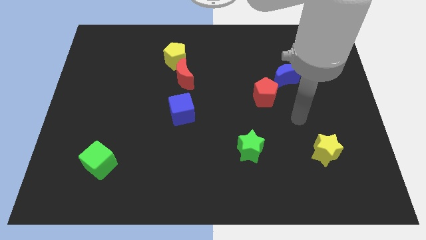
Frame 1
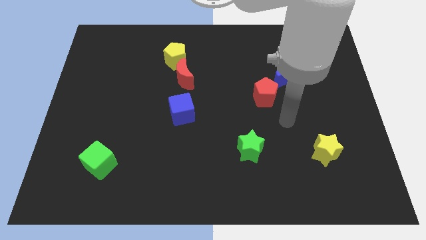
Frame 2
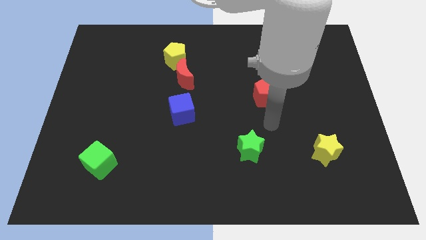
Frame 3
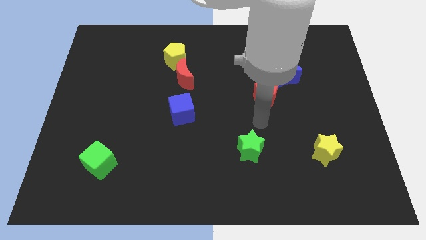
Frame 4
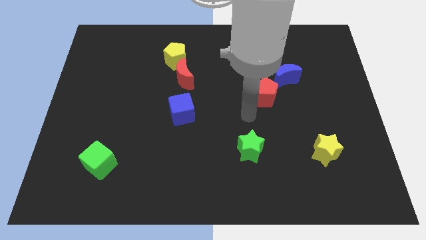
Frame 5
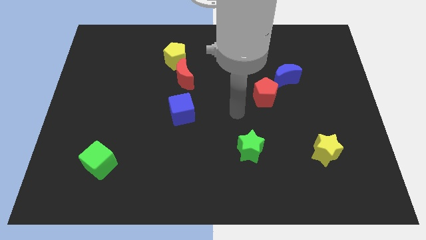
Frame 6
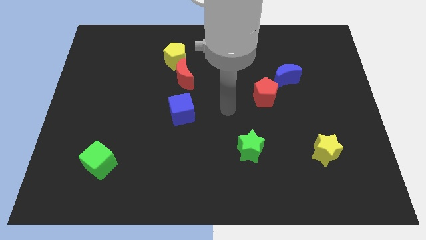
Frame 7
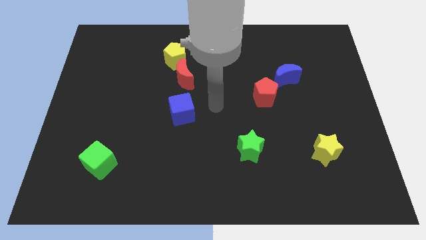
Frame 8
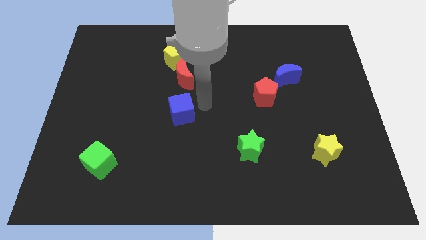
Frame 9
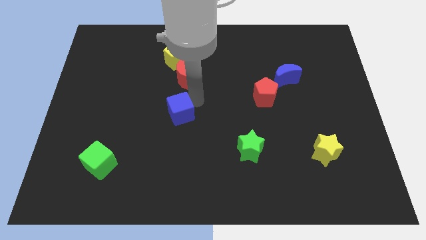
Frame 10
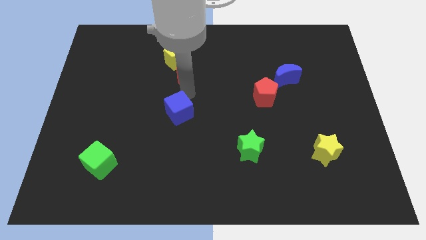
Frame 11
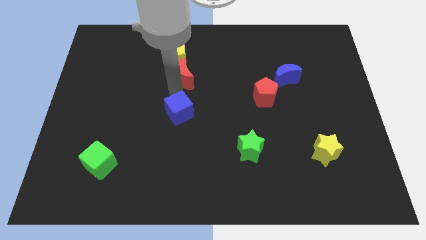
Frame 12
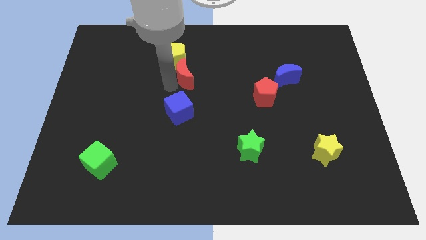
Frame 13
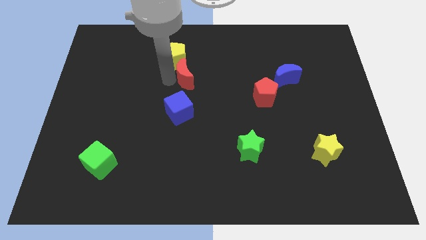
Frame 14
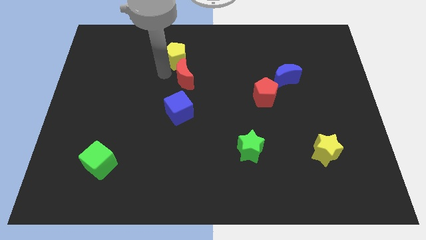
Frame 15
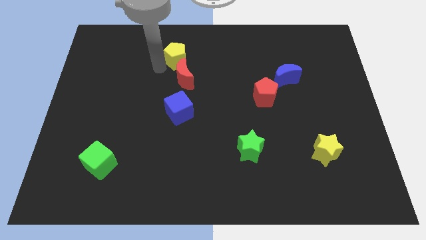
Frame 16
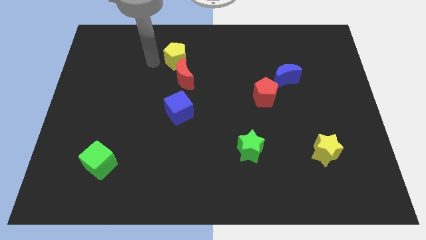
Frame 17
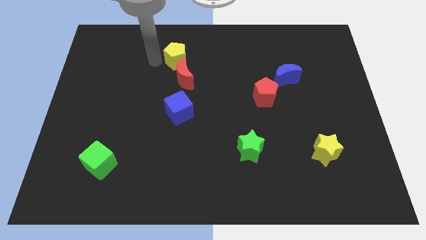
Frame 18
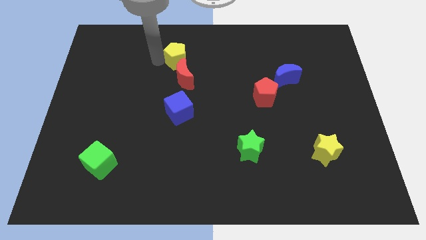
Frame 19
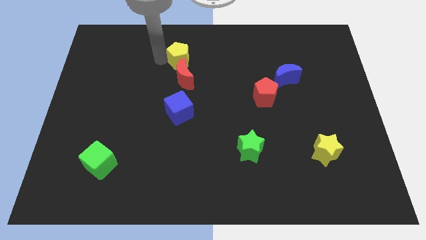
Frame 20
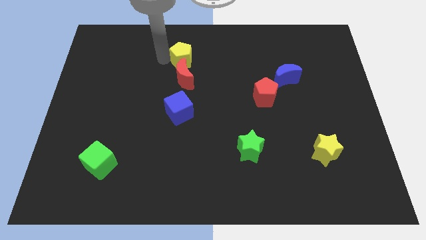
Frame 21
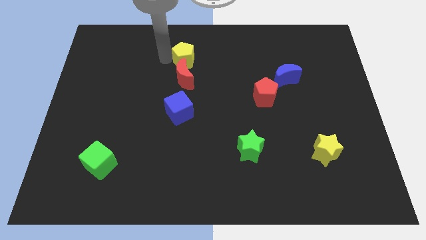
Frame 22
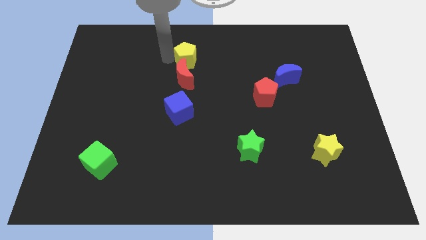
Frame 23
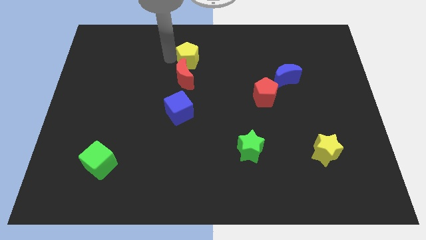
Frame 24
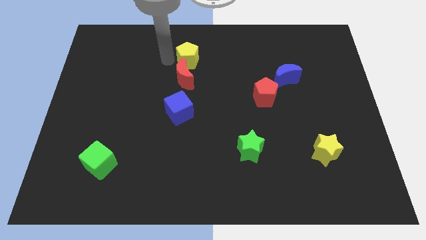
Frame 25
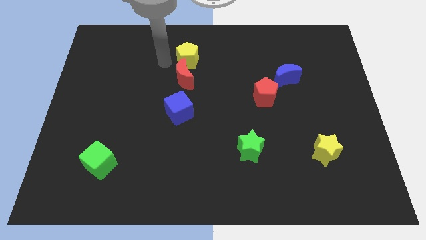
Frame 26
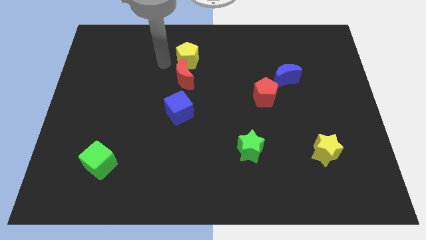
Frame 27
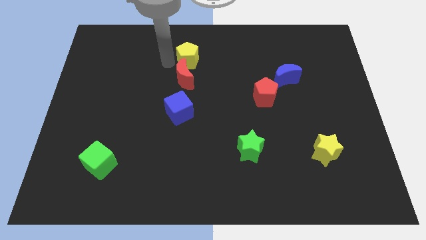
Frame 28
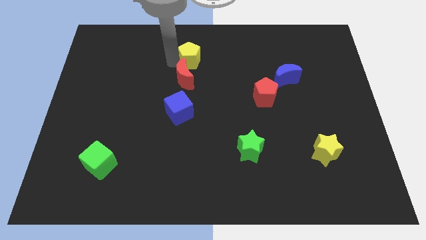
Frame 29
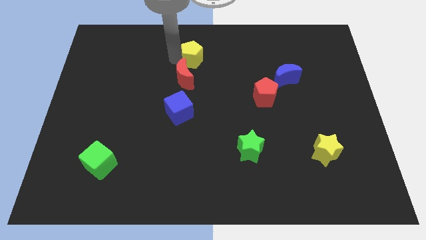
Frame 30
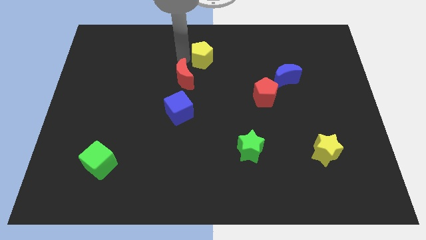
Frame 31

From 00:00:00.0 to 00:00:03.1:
move the yellow pentagon a little to the right

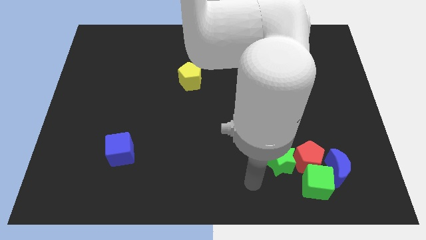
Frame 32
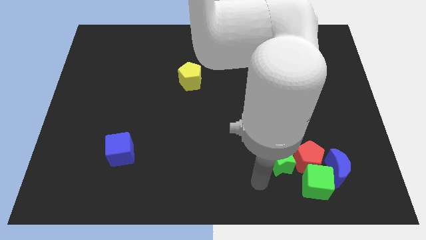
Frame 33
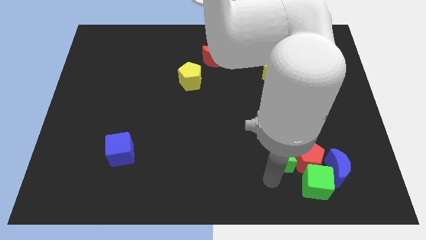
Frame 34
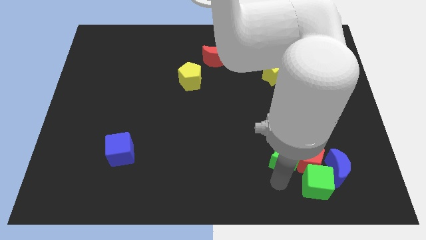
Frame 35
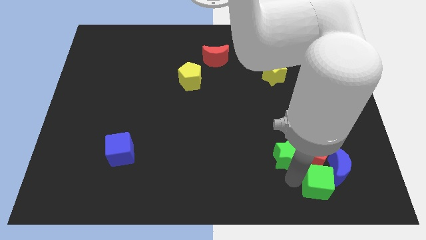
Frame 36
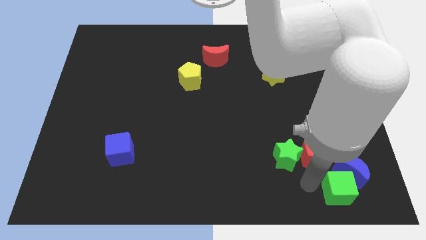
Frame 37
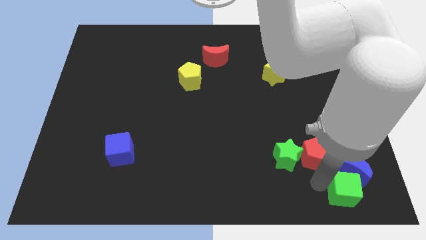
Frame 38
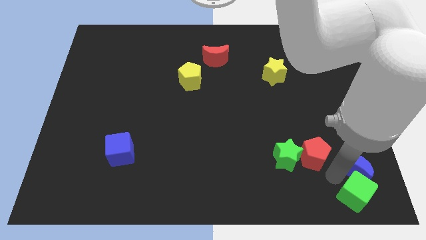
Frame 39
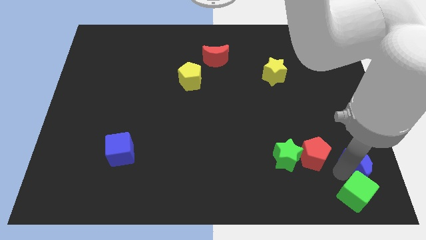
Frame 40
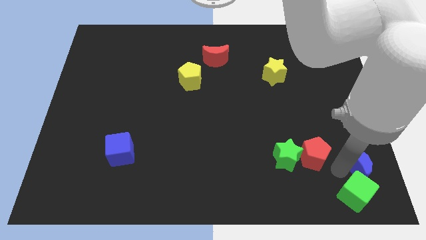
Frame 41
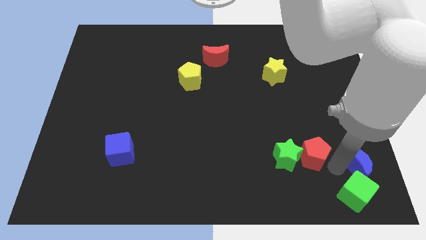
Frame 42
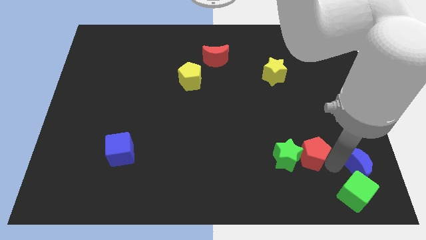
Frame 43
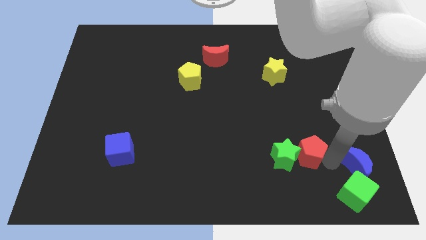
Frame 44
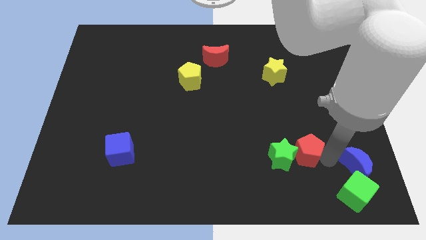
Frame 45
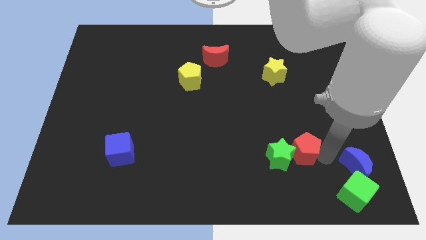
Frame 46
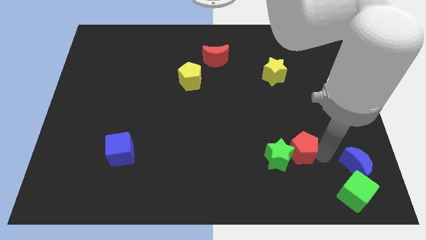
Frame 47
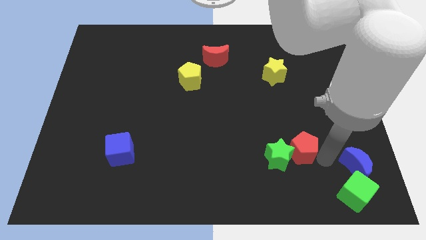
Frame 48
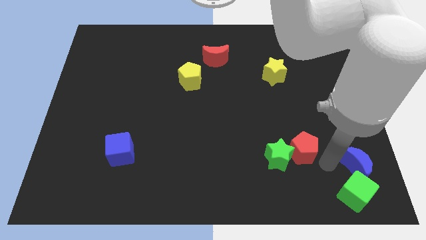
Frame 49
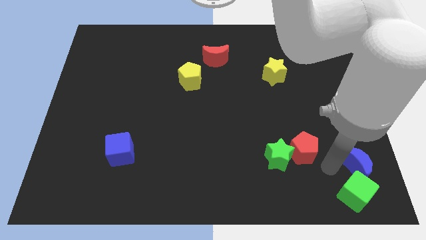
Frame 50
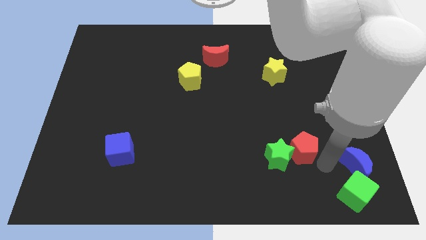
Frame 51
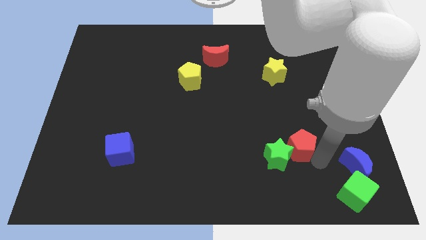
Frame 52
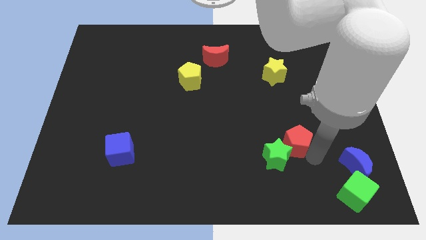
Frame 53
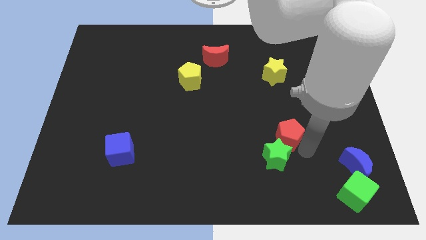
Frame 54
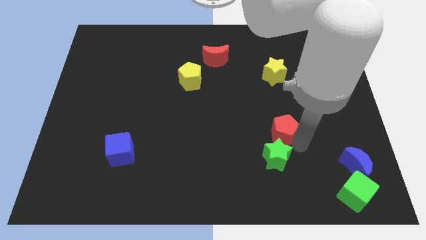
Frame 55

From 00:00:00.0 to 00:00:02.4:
move the red pentagon up and left diagonally a little bit

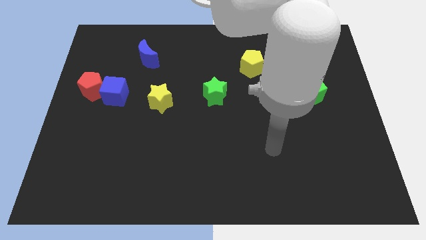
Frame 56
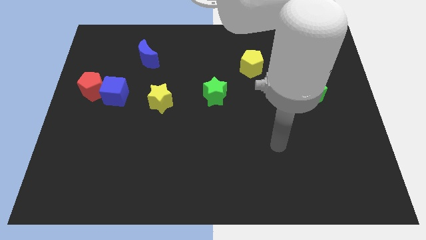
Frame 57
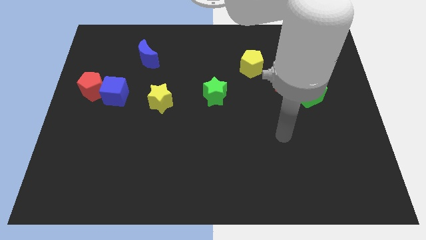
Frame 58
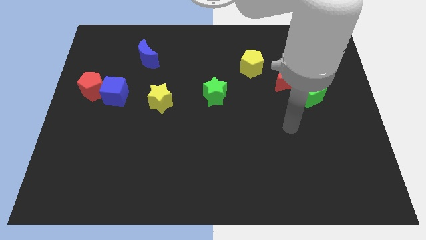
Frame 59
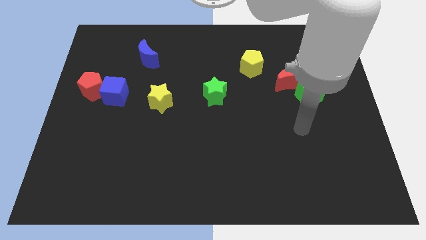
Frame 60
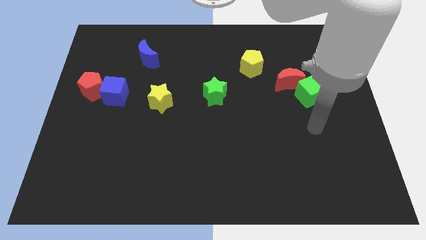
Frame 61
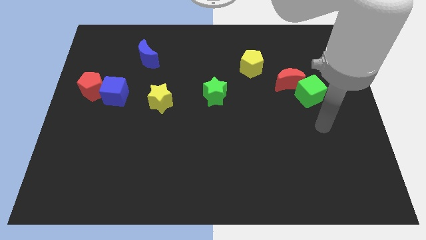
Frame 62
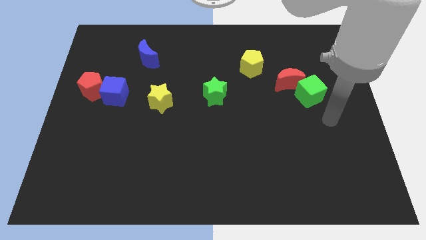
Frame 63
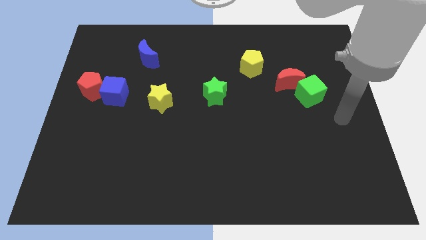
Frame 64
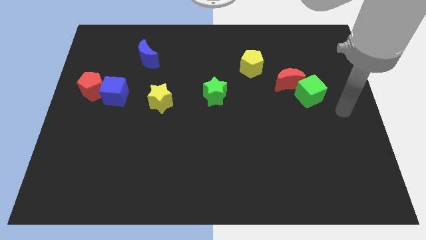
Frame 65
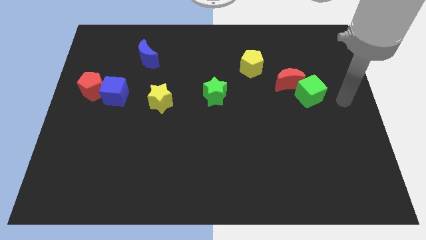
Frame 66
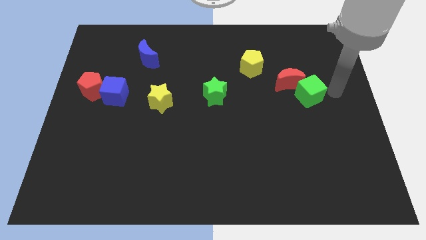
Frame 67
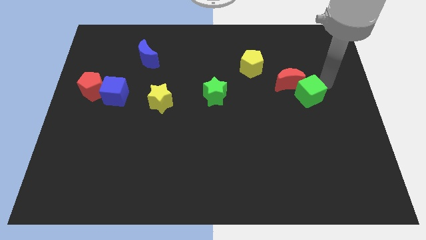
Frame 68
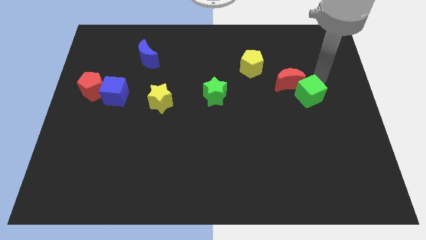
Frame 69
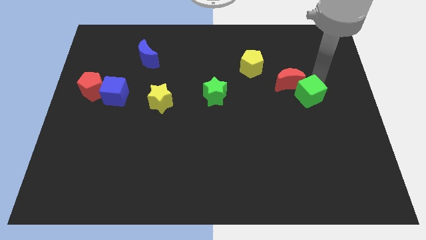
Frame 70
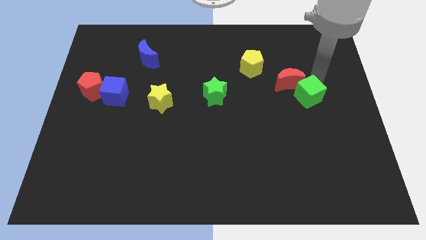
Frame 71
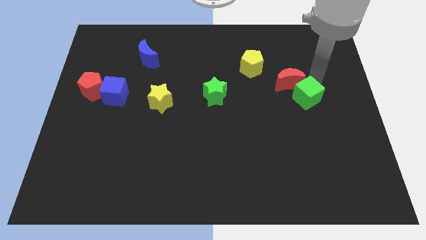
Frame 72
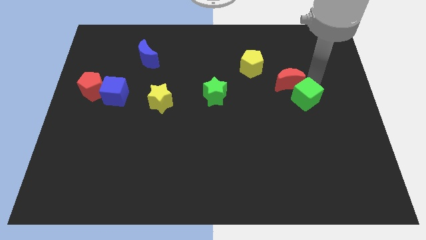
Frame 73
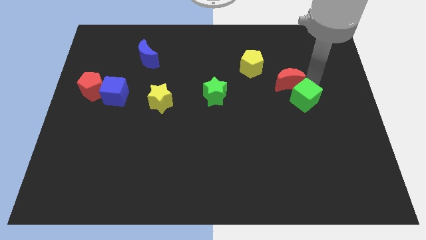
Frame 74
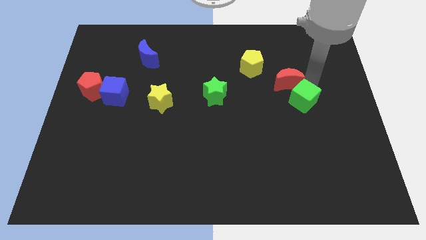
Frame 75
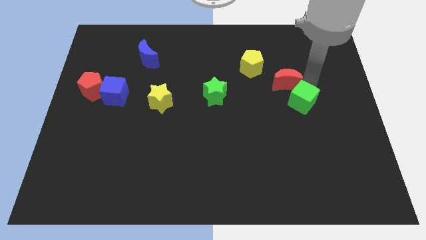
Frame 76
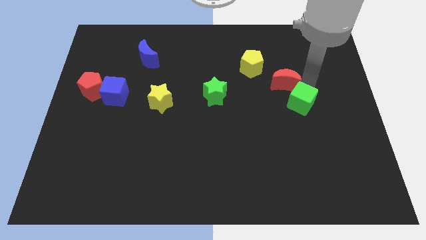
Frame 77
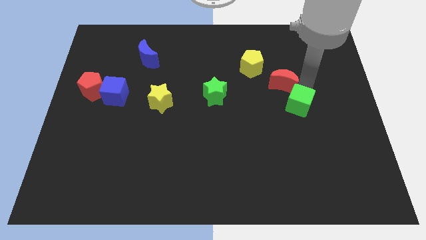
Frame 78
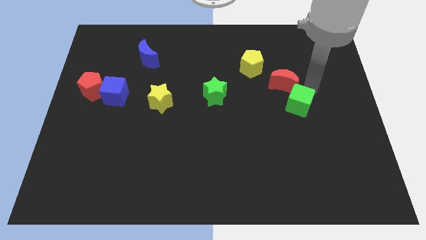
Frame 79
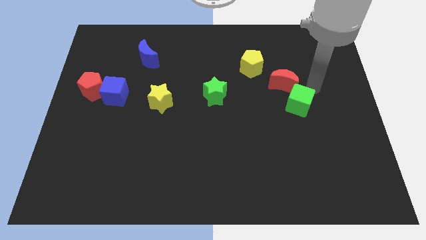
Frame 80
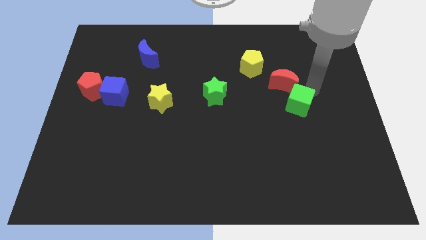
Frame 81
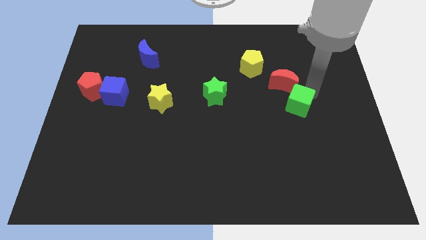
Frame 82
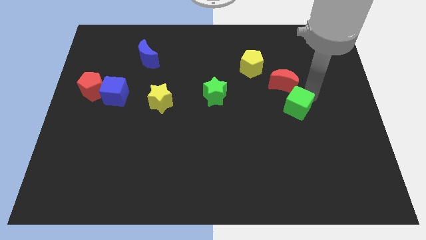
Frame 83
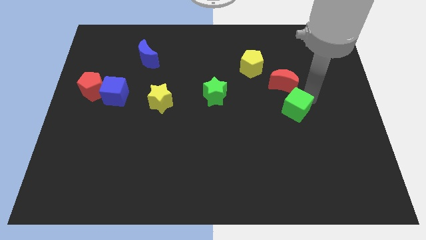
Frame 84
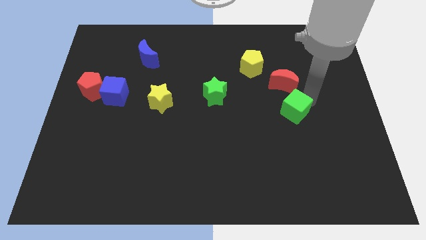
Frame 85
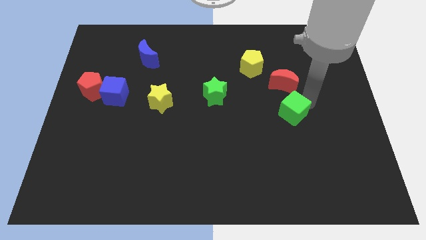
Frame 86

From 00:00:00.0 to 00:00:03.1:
slide the green cube a little downwards and to the left
